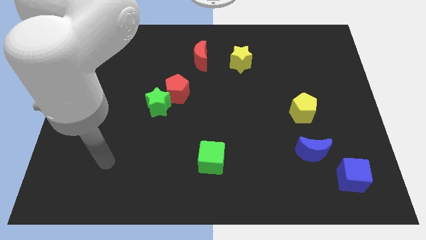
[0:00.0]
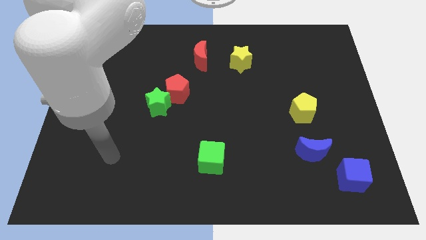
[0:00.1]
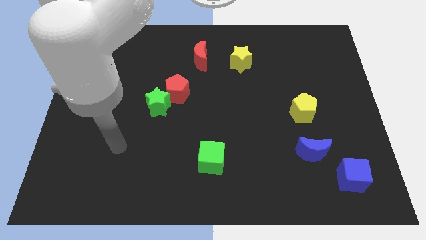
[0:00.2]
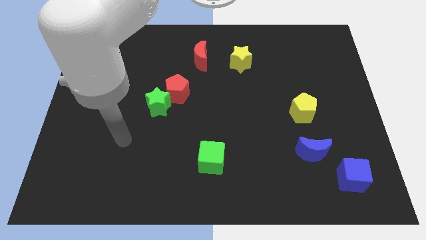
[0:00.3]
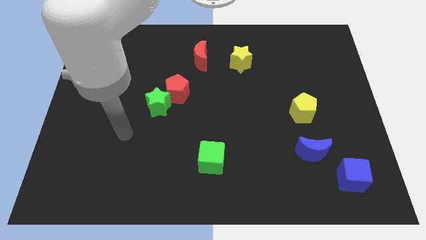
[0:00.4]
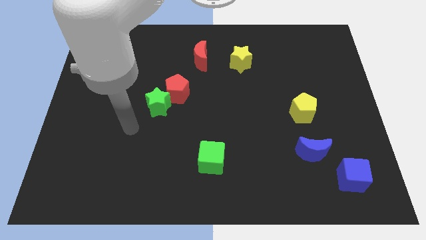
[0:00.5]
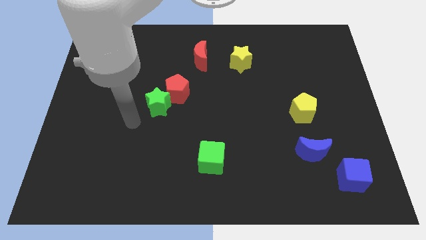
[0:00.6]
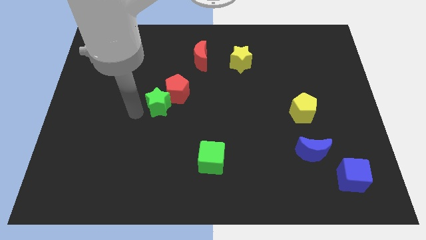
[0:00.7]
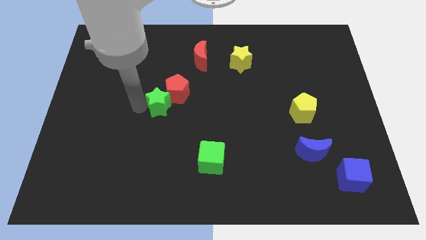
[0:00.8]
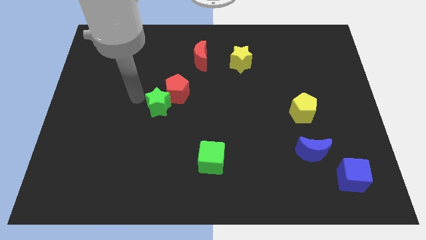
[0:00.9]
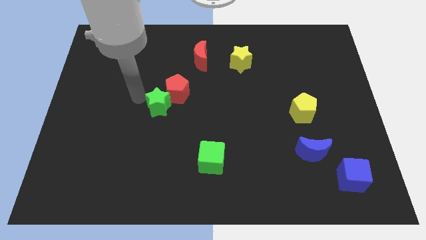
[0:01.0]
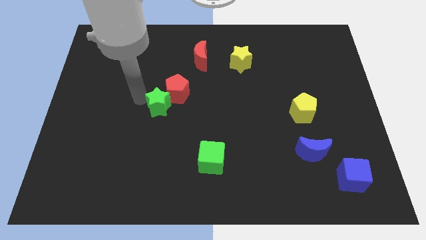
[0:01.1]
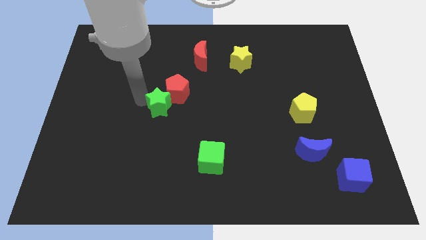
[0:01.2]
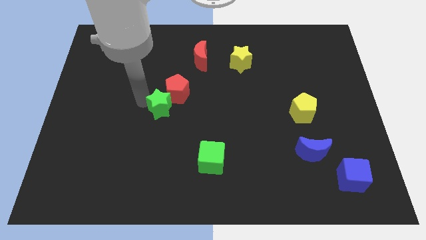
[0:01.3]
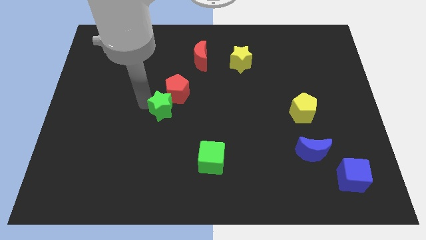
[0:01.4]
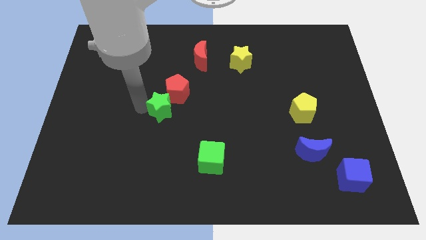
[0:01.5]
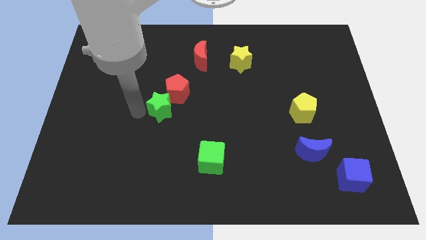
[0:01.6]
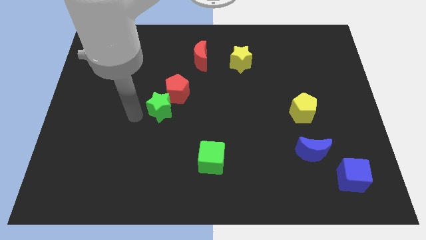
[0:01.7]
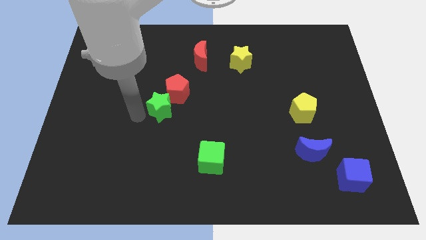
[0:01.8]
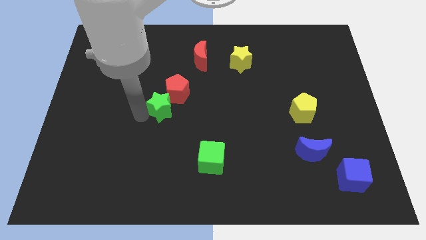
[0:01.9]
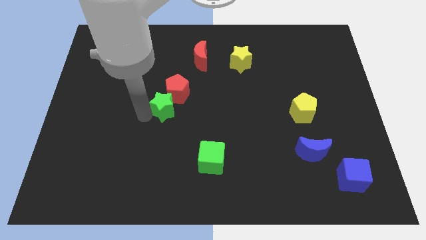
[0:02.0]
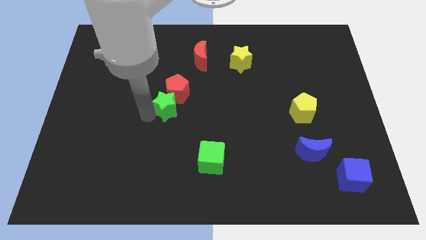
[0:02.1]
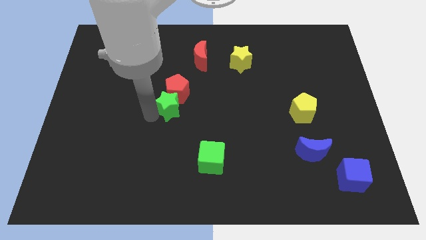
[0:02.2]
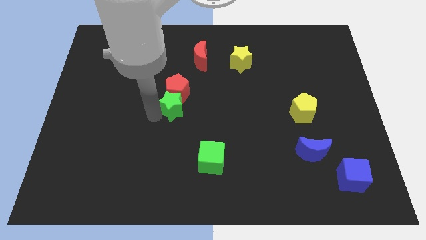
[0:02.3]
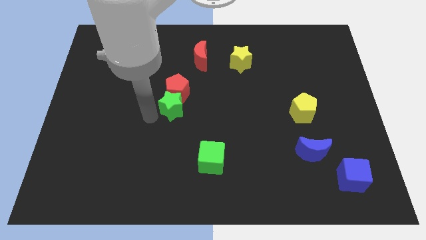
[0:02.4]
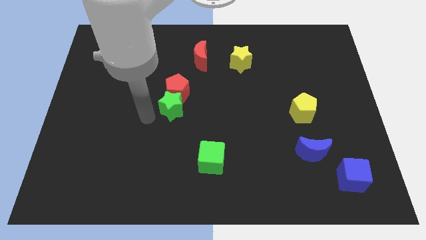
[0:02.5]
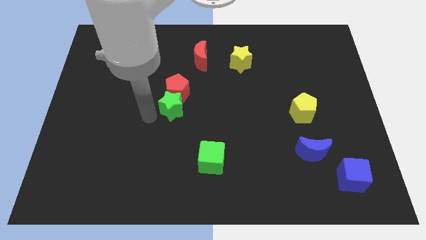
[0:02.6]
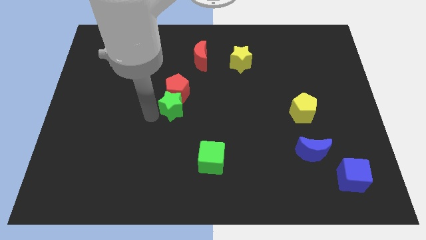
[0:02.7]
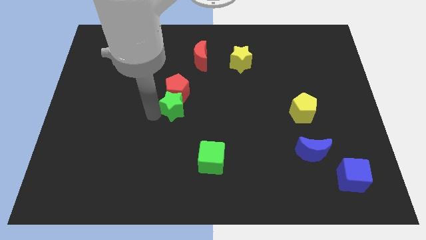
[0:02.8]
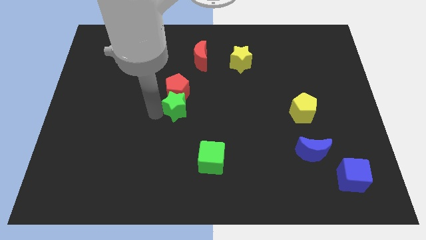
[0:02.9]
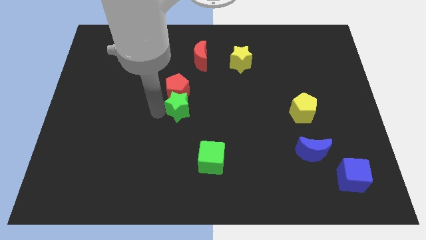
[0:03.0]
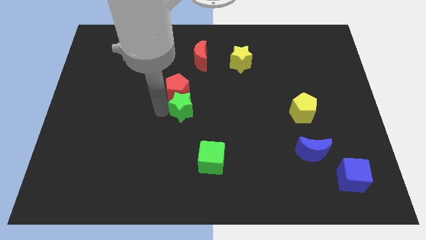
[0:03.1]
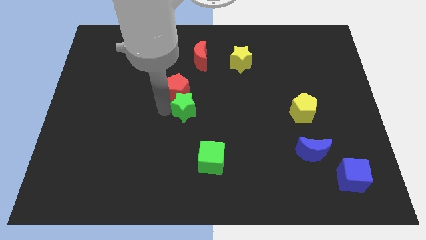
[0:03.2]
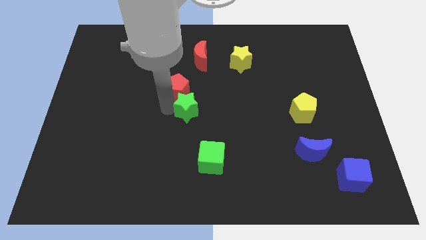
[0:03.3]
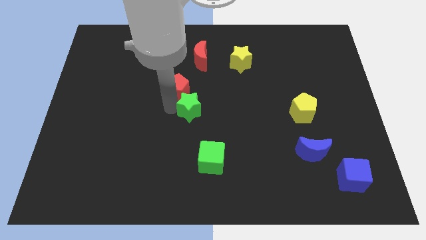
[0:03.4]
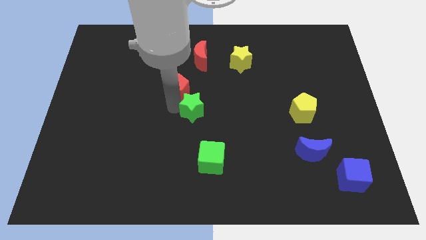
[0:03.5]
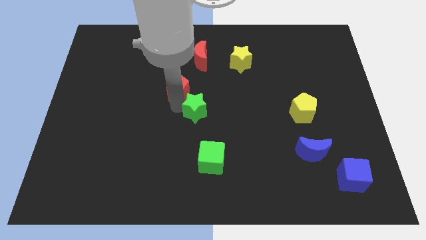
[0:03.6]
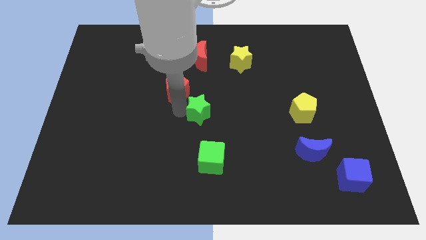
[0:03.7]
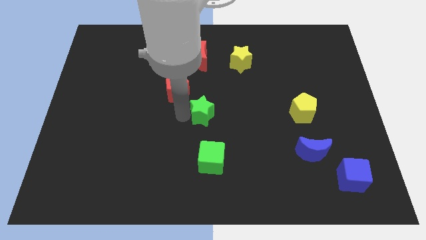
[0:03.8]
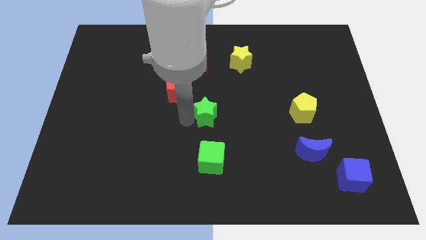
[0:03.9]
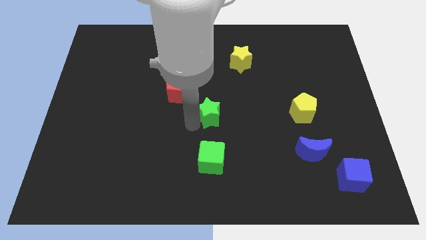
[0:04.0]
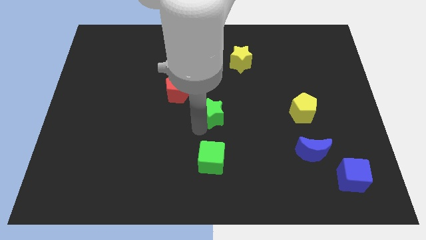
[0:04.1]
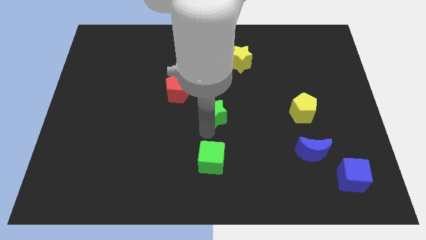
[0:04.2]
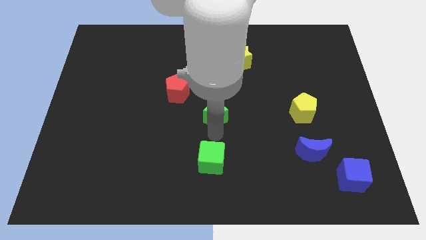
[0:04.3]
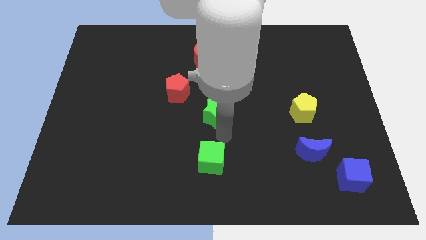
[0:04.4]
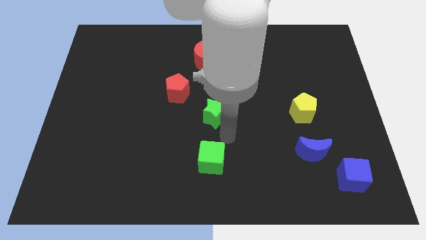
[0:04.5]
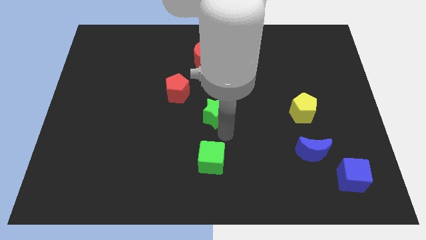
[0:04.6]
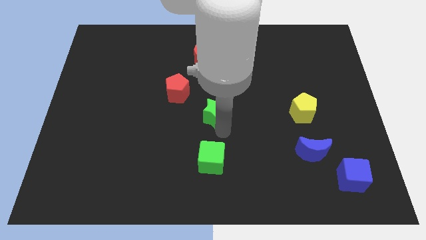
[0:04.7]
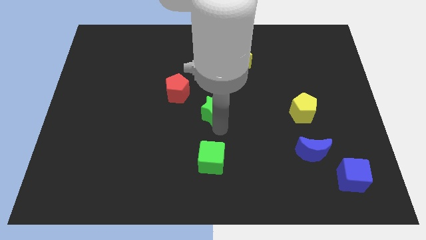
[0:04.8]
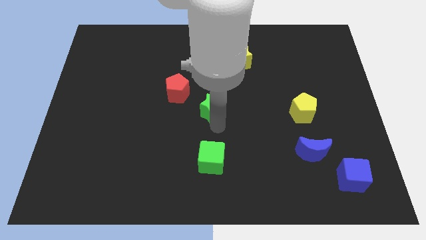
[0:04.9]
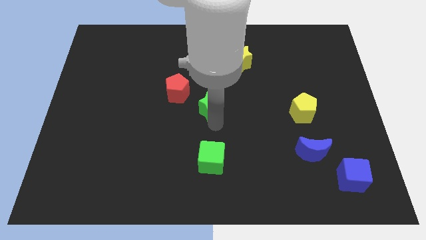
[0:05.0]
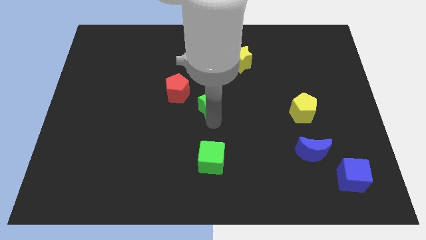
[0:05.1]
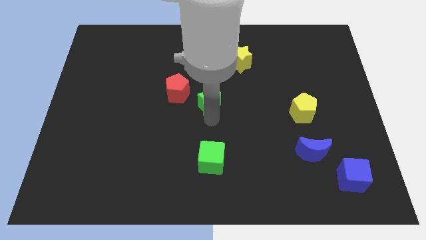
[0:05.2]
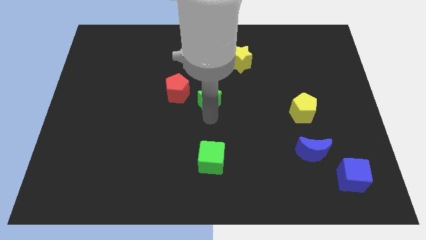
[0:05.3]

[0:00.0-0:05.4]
move the green star up and to the right diagonally a little

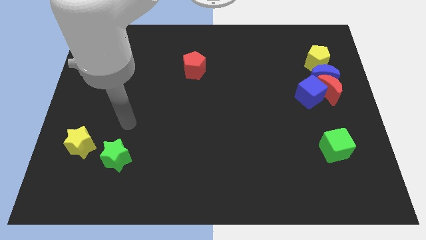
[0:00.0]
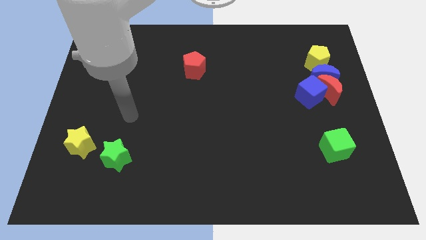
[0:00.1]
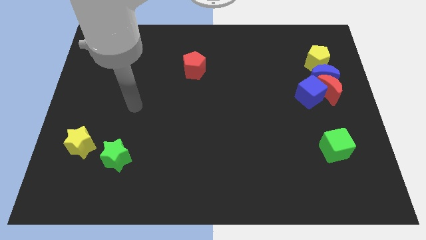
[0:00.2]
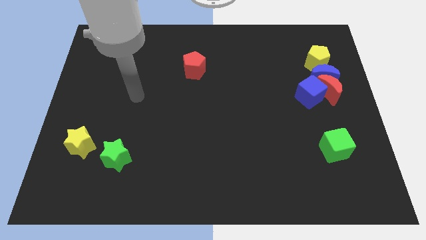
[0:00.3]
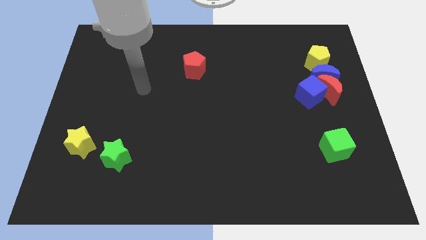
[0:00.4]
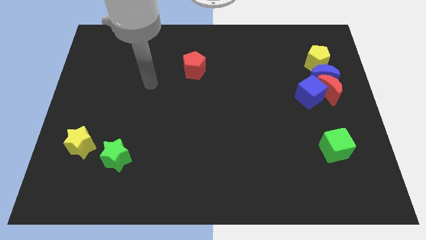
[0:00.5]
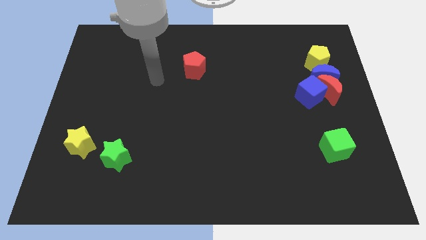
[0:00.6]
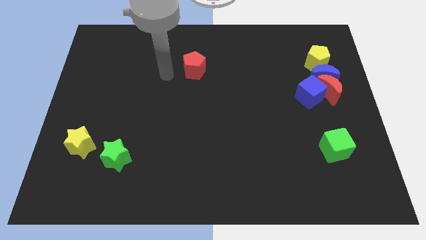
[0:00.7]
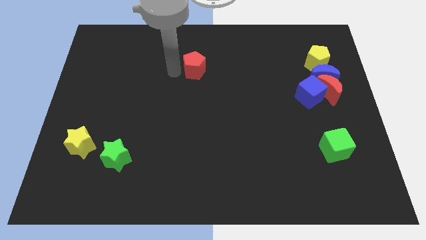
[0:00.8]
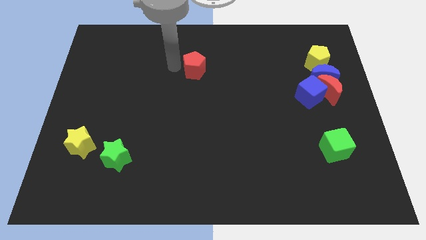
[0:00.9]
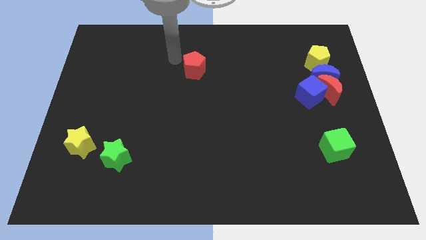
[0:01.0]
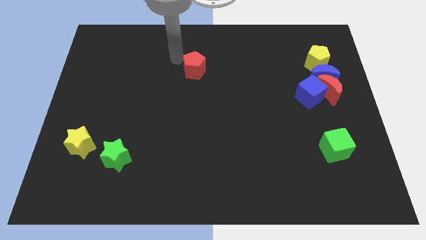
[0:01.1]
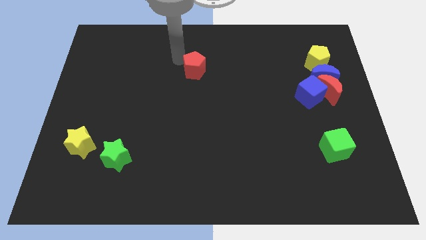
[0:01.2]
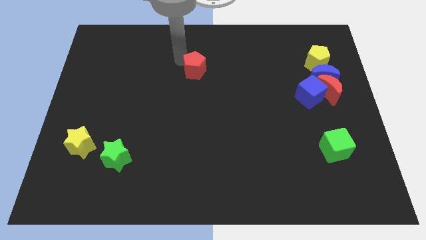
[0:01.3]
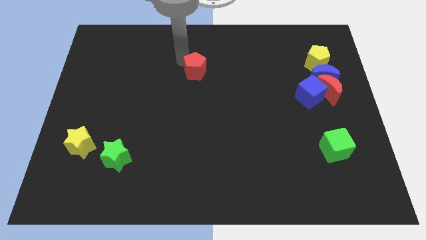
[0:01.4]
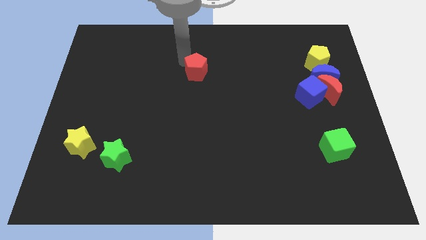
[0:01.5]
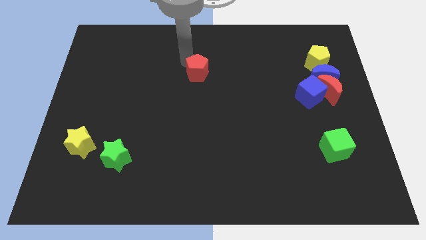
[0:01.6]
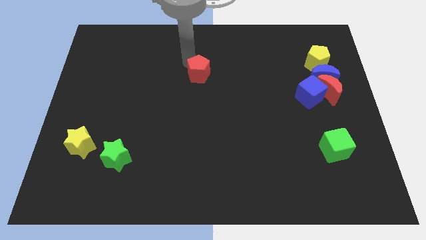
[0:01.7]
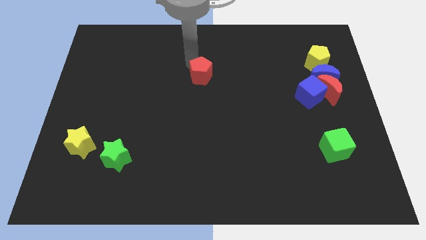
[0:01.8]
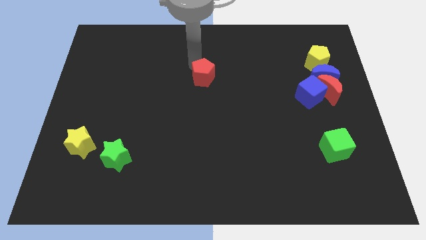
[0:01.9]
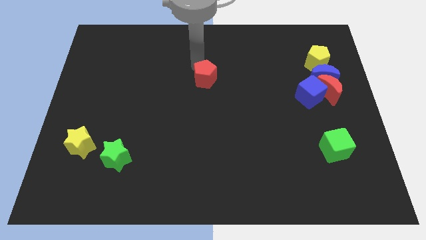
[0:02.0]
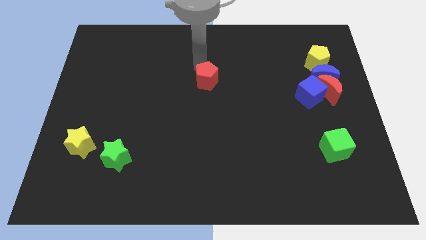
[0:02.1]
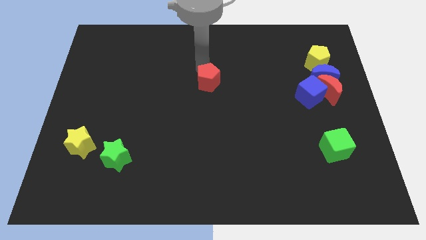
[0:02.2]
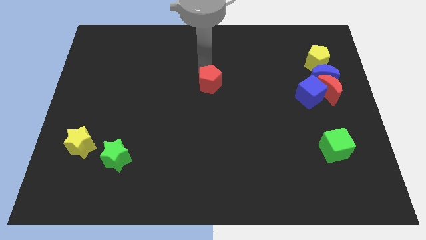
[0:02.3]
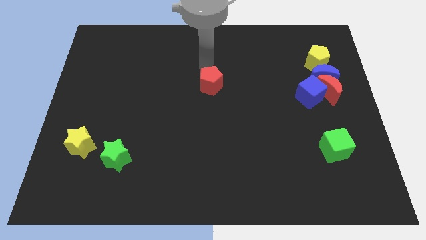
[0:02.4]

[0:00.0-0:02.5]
slightly move the red pentagon downwards and then to the right

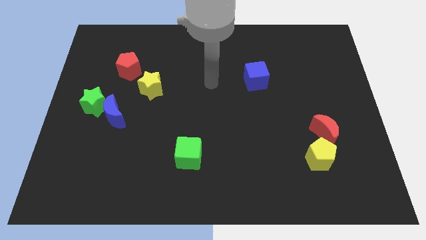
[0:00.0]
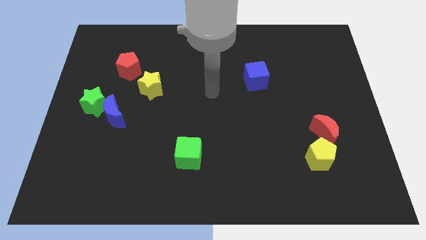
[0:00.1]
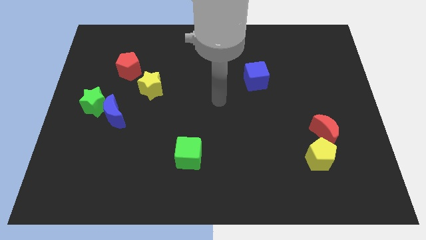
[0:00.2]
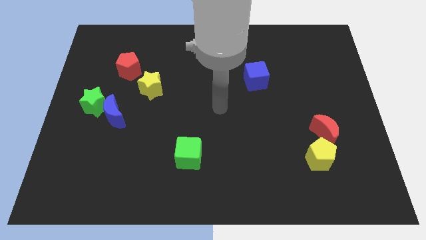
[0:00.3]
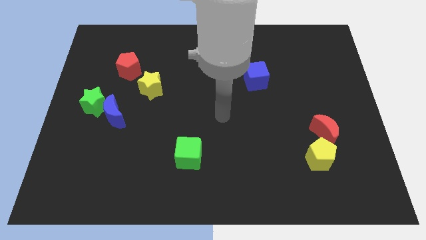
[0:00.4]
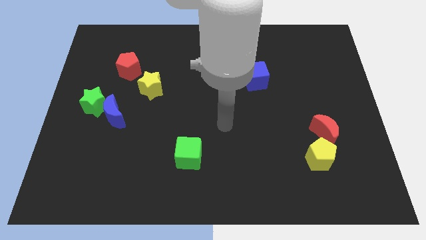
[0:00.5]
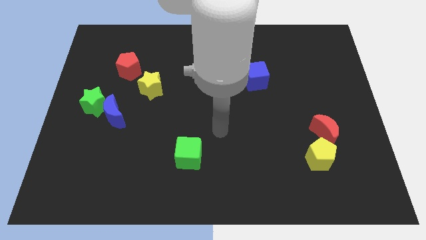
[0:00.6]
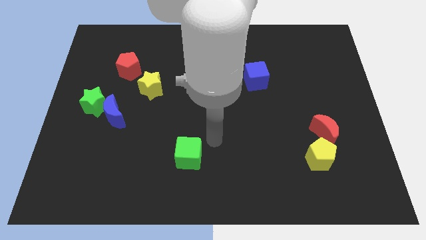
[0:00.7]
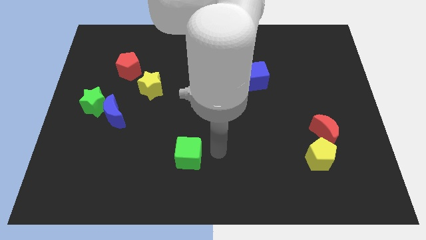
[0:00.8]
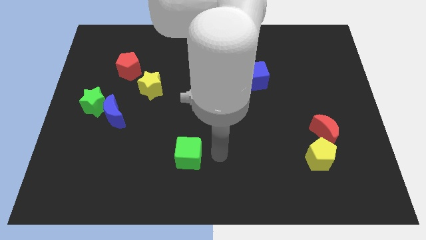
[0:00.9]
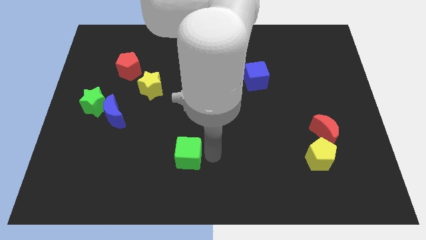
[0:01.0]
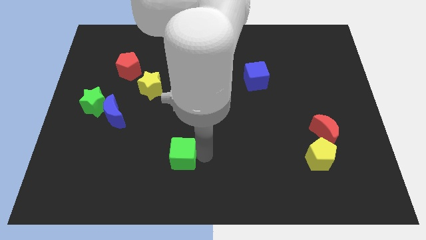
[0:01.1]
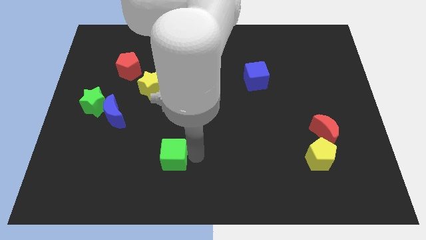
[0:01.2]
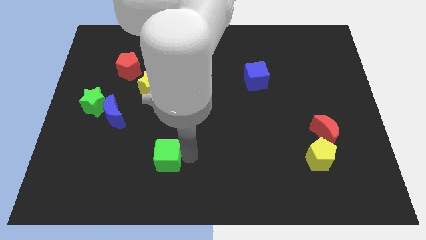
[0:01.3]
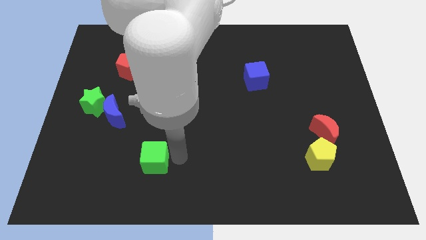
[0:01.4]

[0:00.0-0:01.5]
move the green cube to the left a little bit
